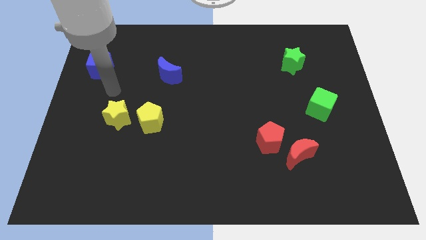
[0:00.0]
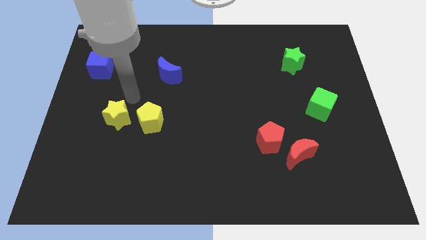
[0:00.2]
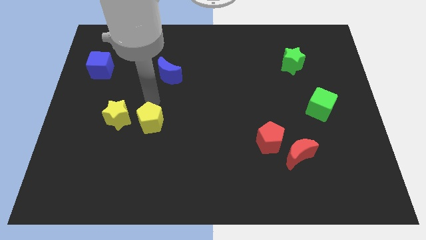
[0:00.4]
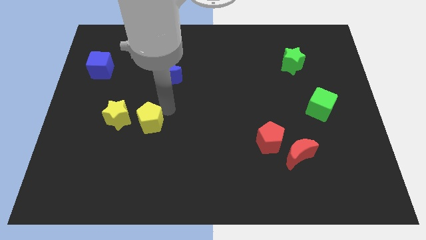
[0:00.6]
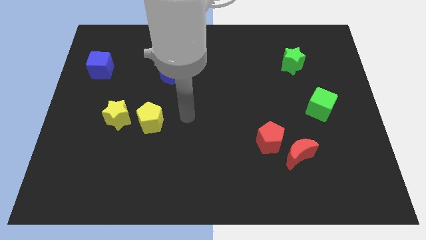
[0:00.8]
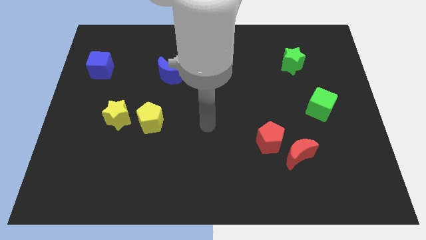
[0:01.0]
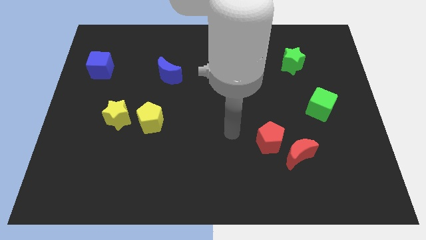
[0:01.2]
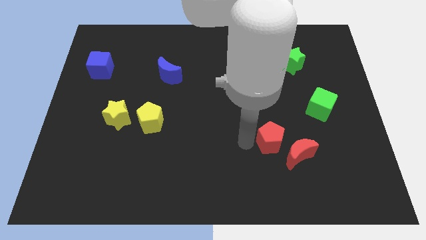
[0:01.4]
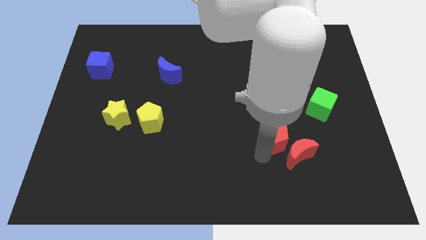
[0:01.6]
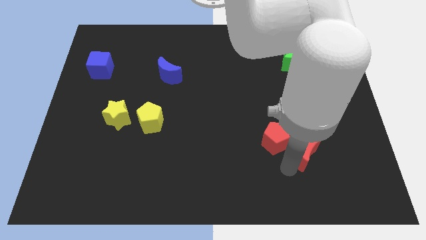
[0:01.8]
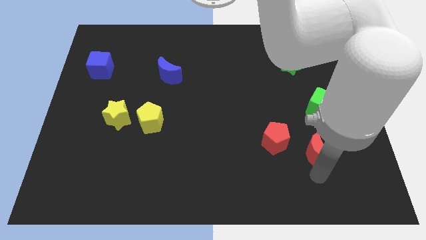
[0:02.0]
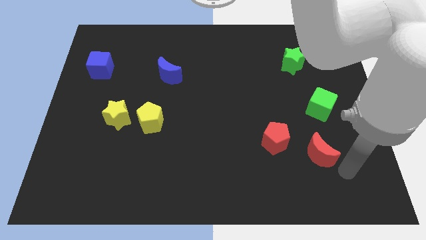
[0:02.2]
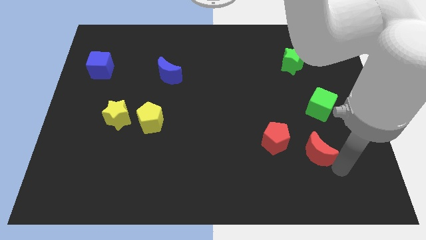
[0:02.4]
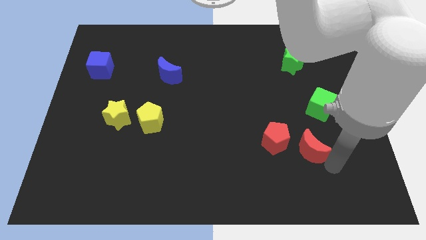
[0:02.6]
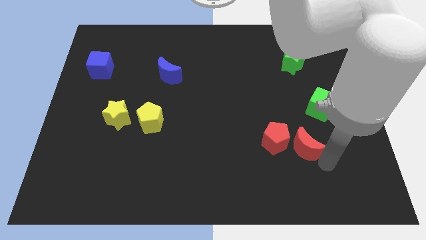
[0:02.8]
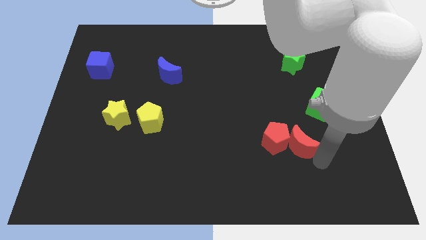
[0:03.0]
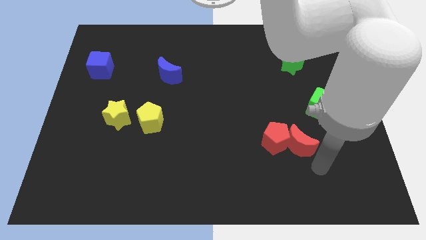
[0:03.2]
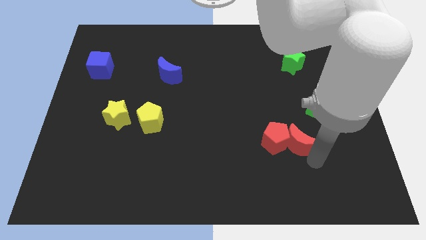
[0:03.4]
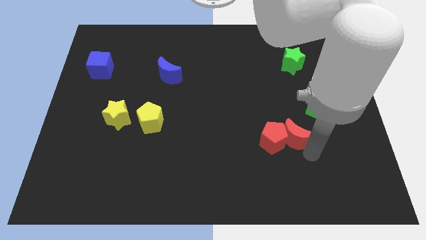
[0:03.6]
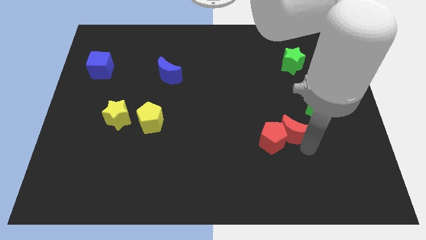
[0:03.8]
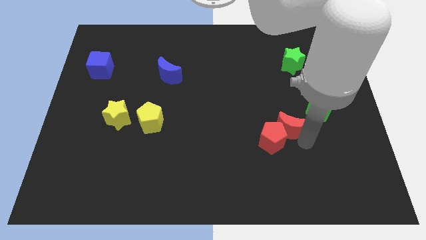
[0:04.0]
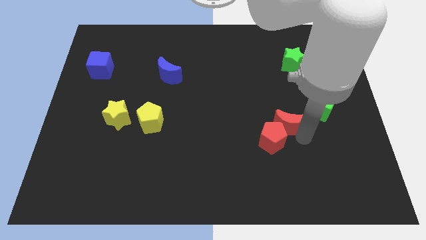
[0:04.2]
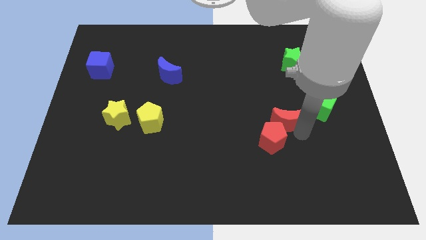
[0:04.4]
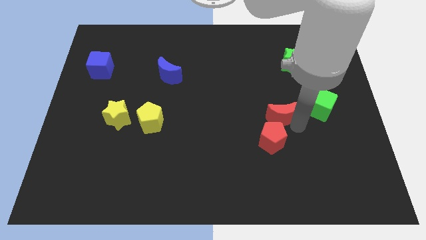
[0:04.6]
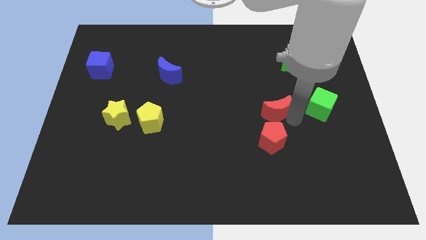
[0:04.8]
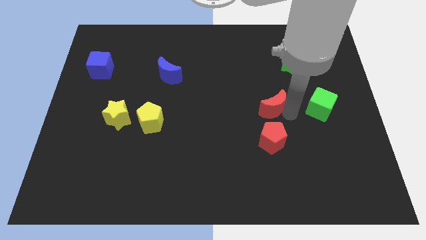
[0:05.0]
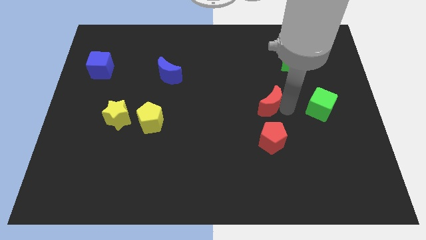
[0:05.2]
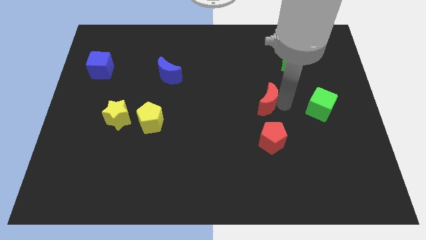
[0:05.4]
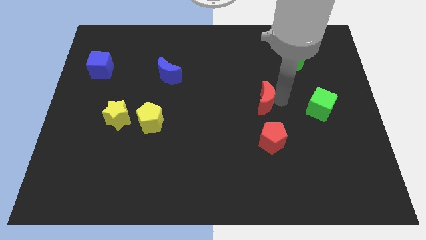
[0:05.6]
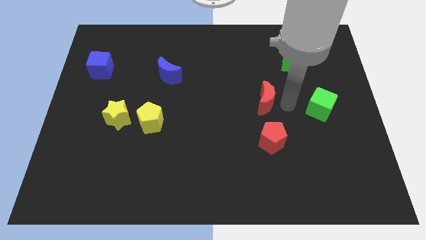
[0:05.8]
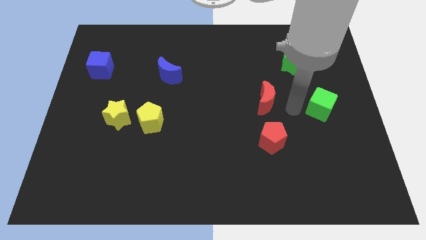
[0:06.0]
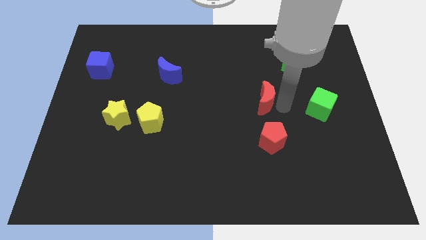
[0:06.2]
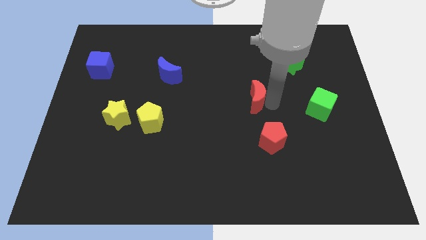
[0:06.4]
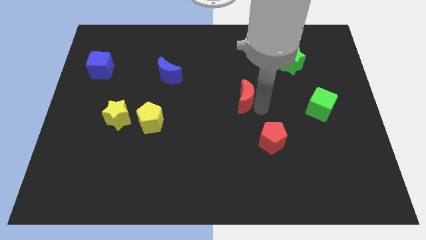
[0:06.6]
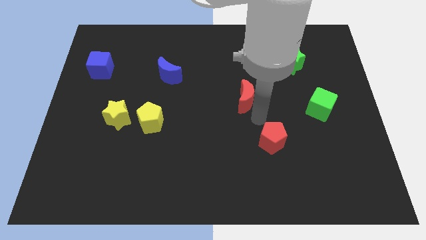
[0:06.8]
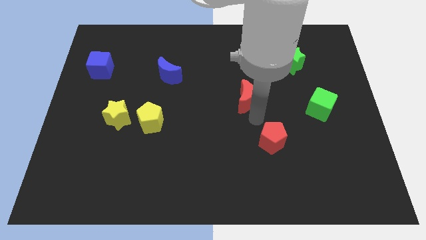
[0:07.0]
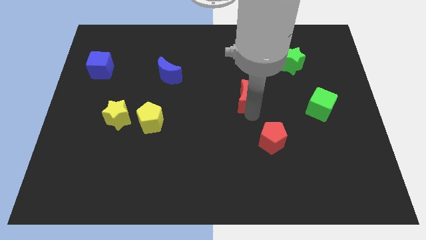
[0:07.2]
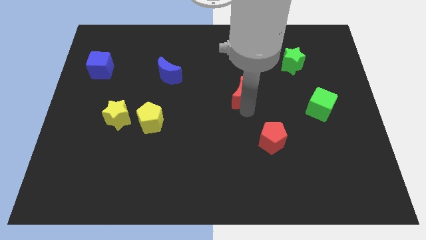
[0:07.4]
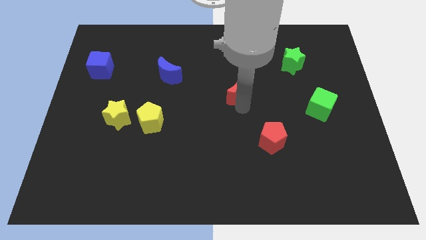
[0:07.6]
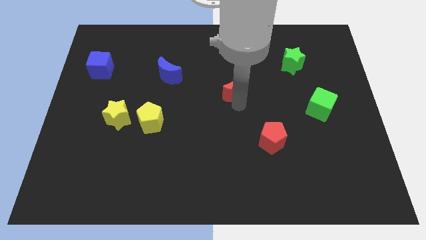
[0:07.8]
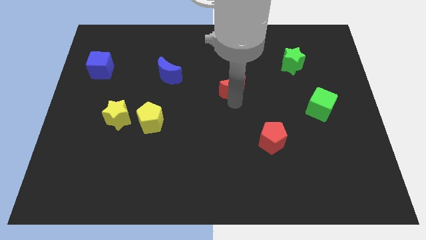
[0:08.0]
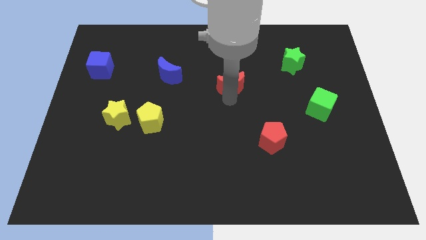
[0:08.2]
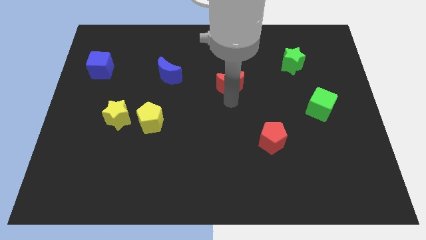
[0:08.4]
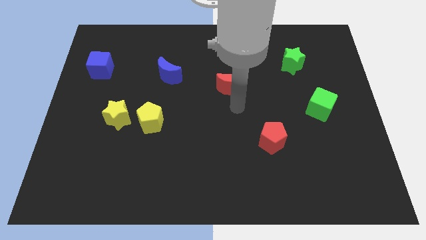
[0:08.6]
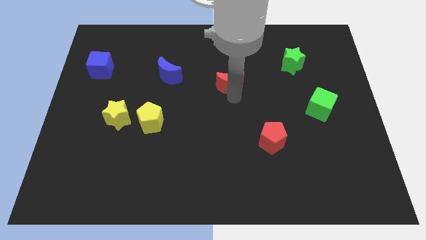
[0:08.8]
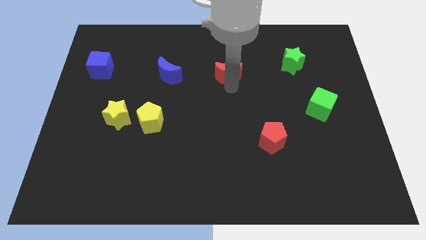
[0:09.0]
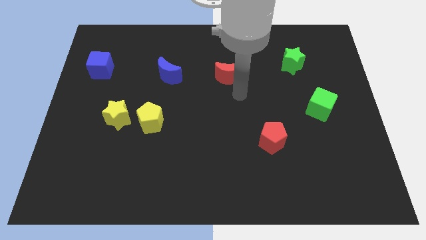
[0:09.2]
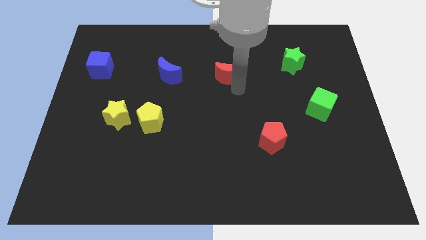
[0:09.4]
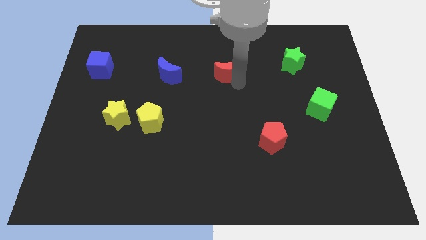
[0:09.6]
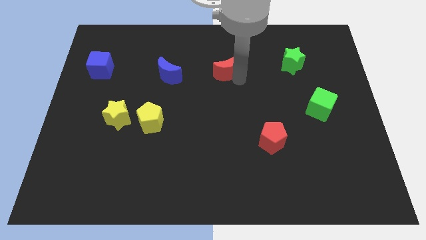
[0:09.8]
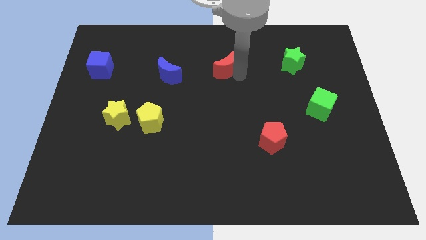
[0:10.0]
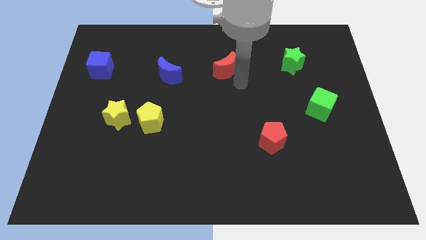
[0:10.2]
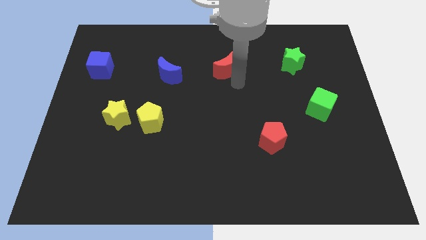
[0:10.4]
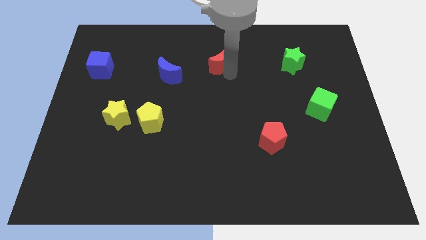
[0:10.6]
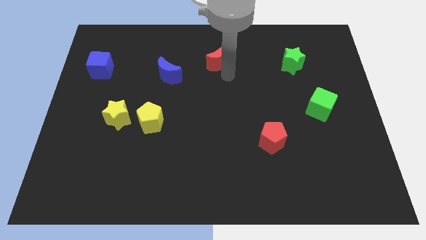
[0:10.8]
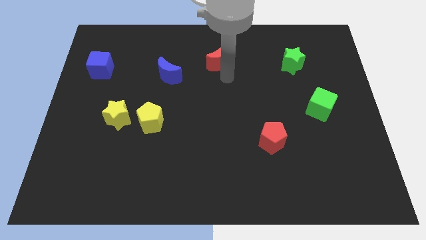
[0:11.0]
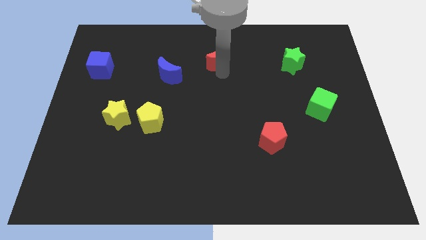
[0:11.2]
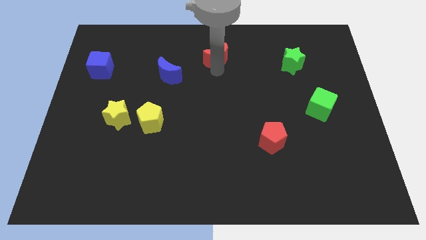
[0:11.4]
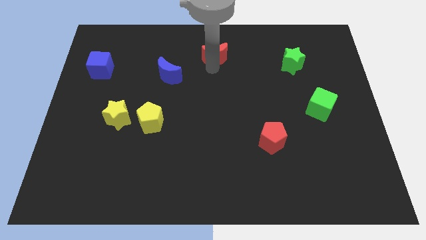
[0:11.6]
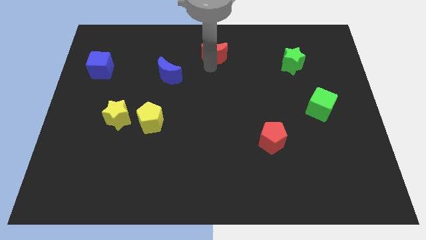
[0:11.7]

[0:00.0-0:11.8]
slide the red moon to the top

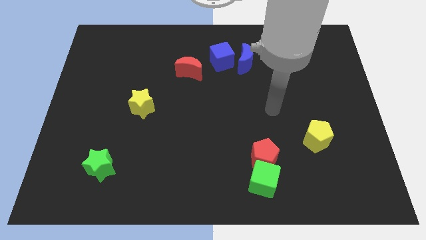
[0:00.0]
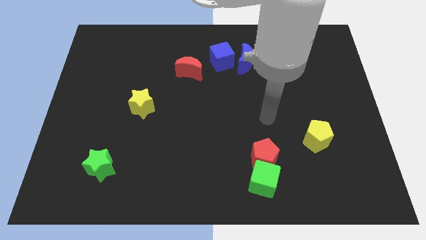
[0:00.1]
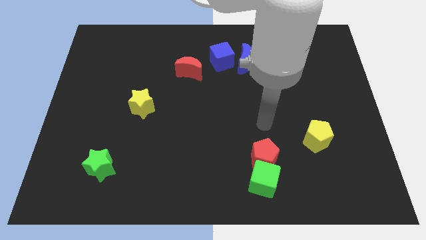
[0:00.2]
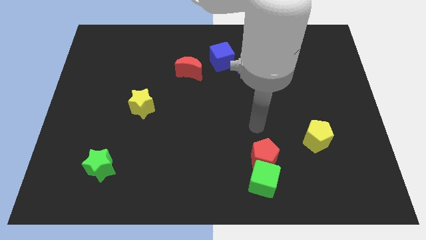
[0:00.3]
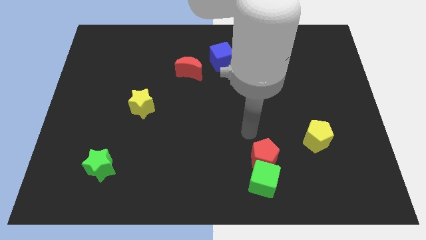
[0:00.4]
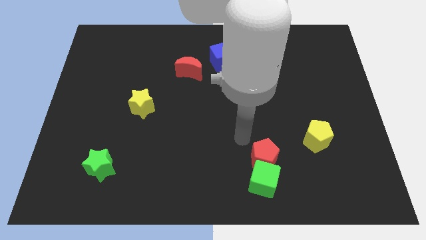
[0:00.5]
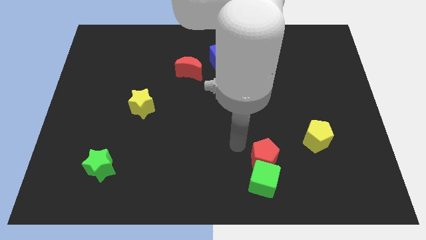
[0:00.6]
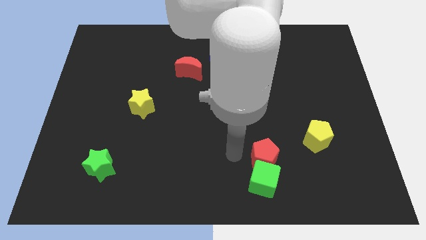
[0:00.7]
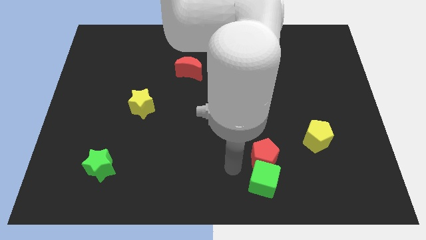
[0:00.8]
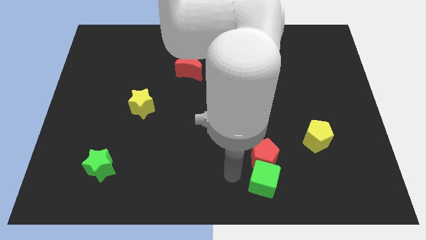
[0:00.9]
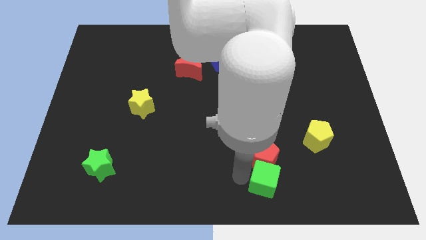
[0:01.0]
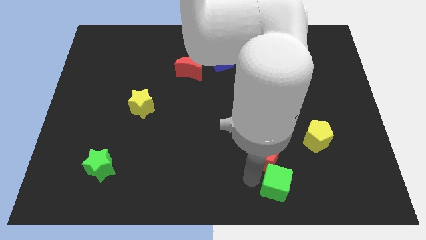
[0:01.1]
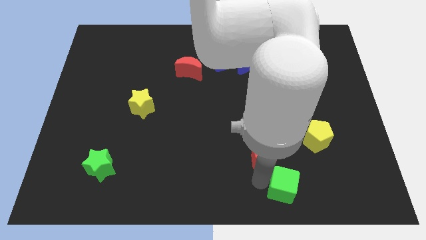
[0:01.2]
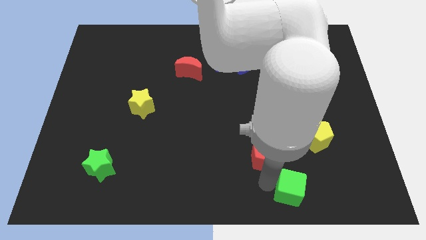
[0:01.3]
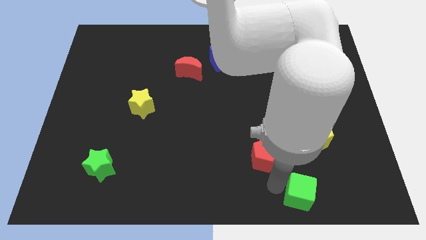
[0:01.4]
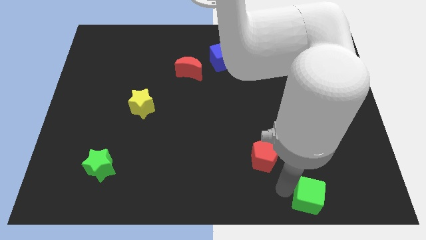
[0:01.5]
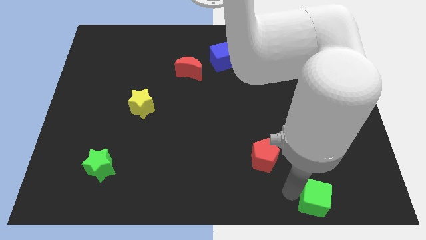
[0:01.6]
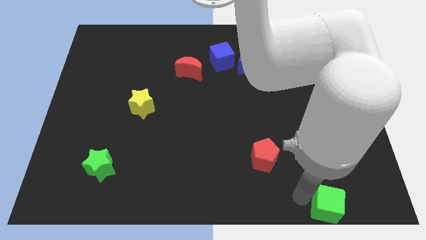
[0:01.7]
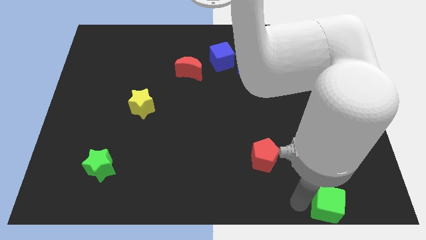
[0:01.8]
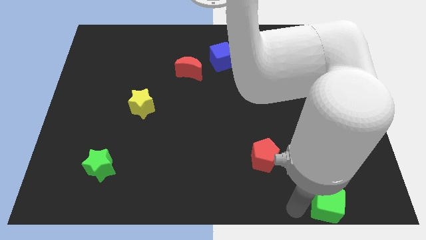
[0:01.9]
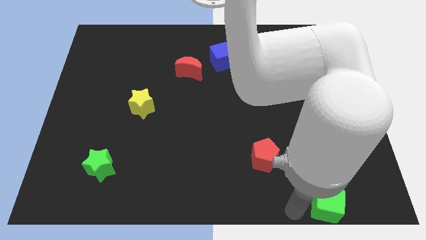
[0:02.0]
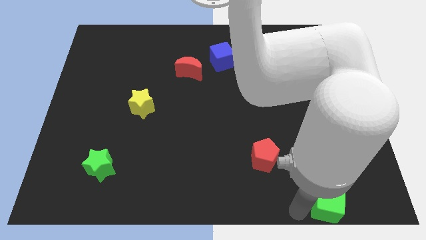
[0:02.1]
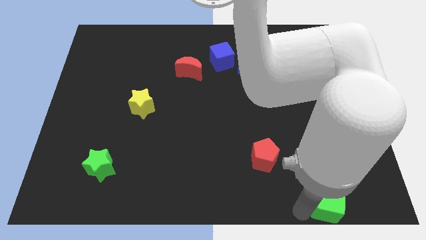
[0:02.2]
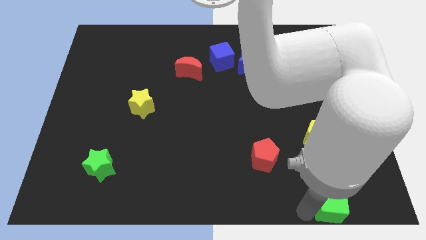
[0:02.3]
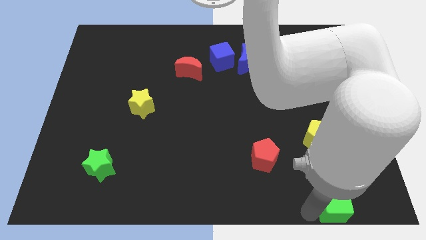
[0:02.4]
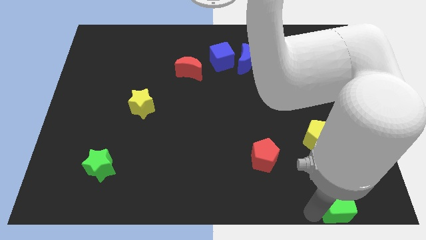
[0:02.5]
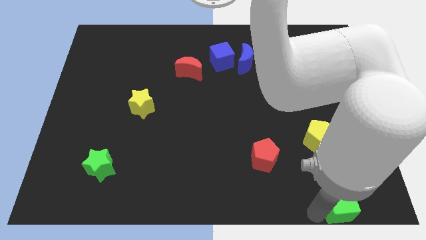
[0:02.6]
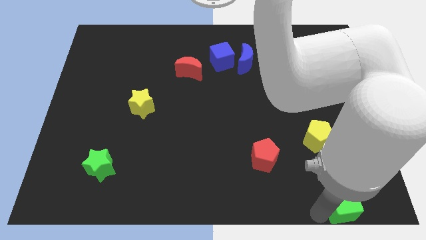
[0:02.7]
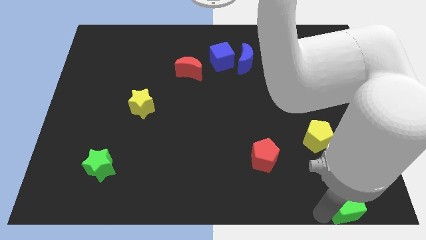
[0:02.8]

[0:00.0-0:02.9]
put the green cube to the bottom right corner
